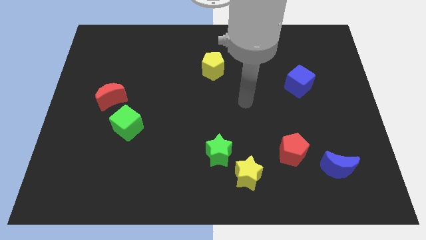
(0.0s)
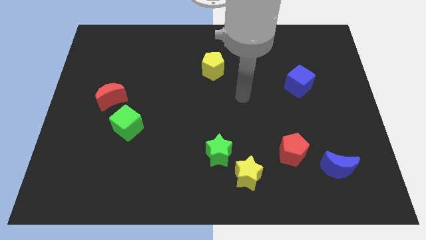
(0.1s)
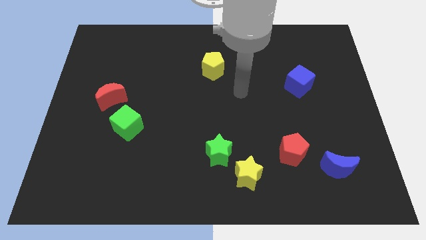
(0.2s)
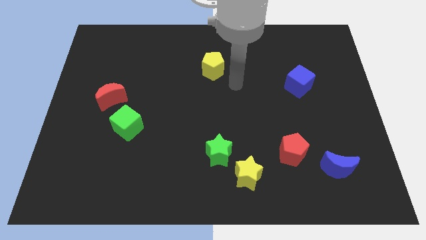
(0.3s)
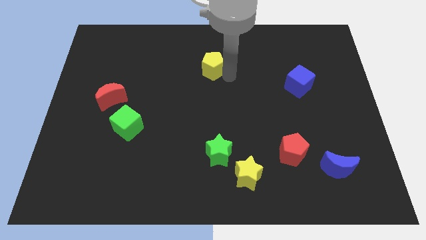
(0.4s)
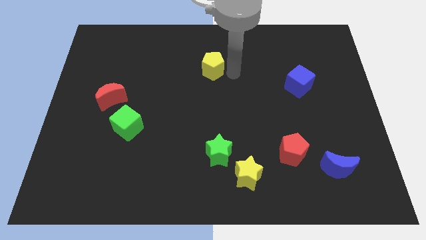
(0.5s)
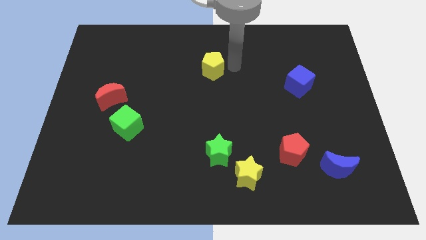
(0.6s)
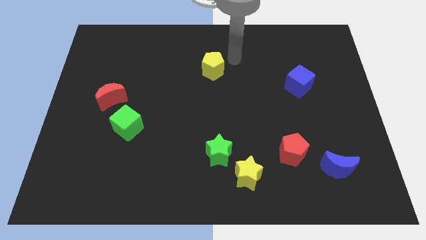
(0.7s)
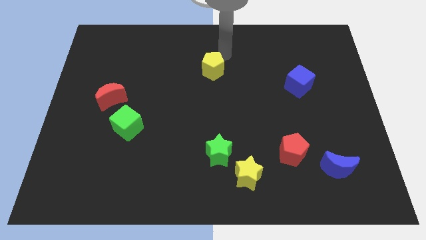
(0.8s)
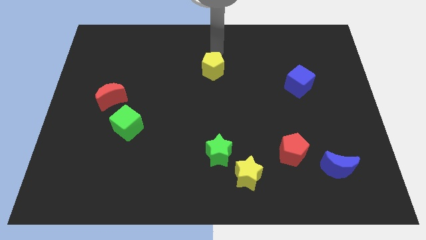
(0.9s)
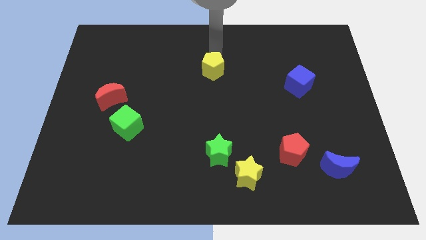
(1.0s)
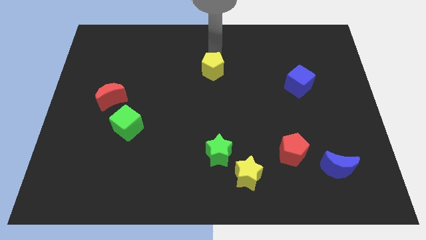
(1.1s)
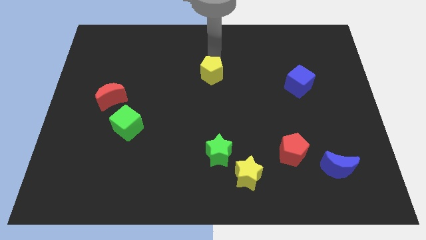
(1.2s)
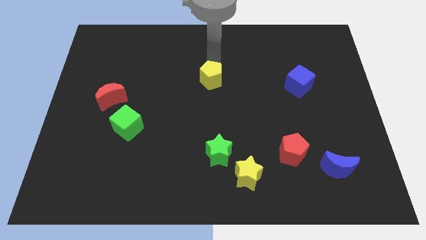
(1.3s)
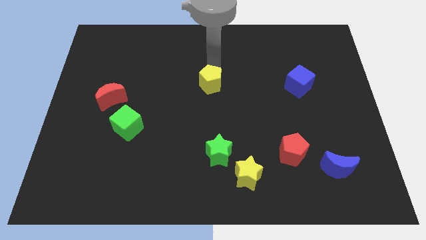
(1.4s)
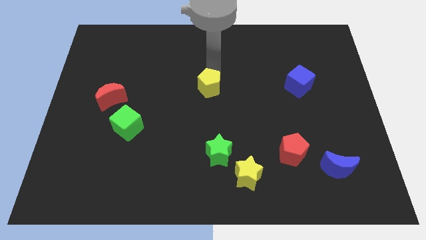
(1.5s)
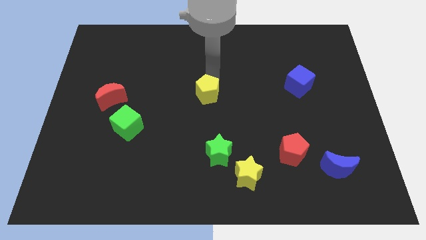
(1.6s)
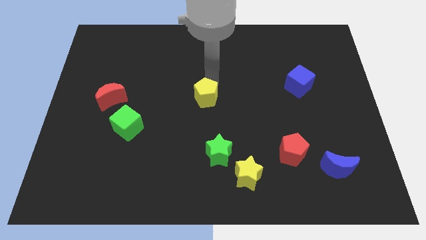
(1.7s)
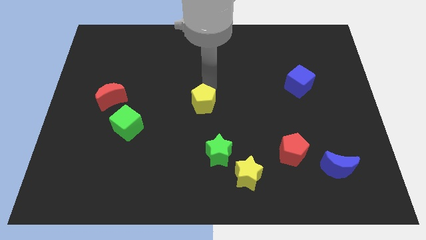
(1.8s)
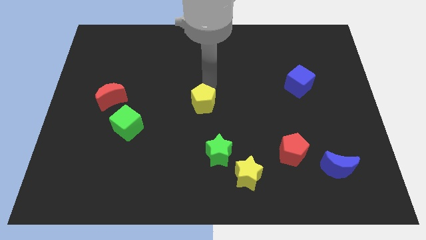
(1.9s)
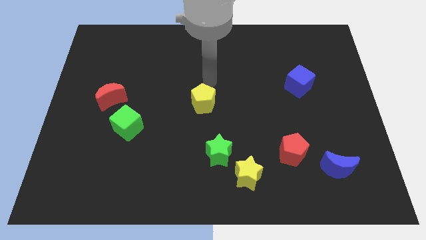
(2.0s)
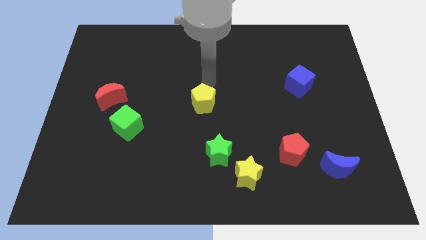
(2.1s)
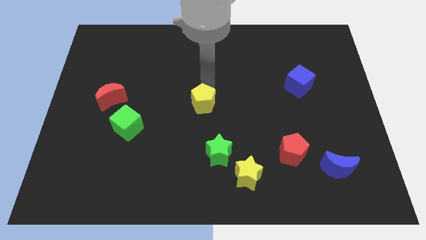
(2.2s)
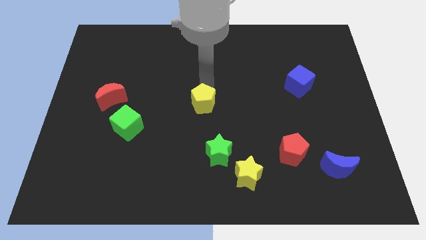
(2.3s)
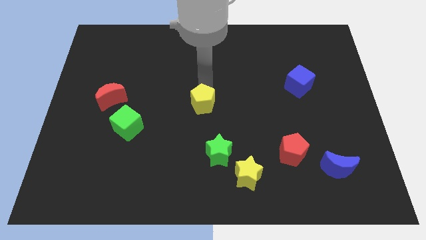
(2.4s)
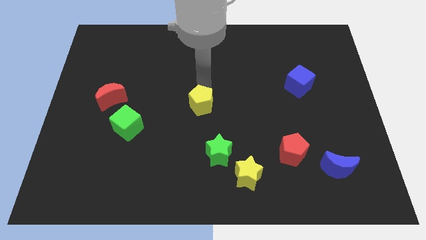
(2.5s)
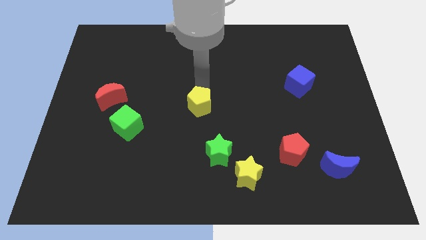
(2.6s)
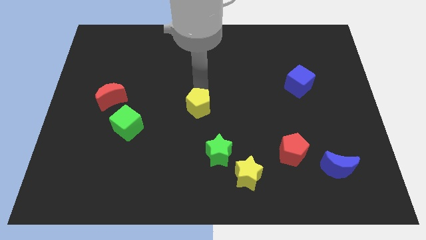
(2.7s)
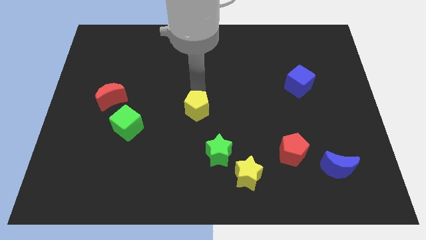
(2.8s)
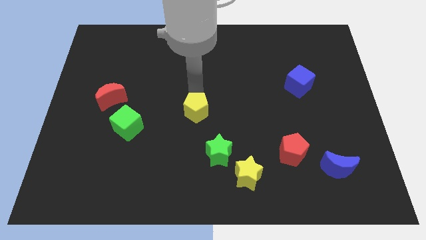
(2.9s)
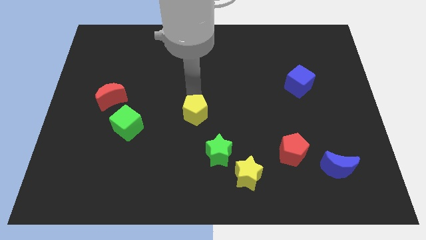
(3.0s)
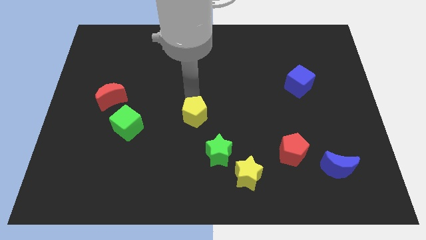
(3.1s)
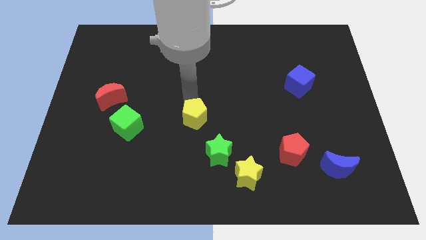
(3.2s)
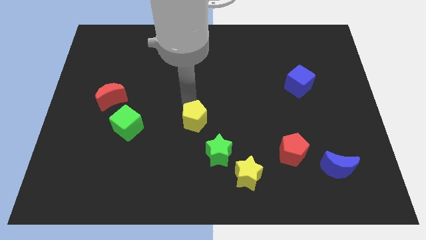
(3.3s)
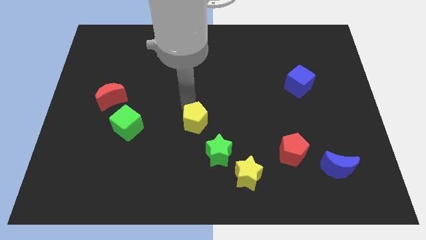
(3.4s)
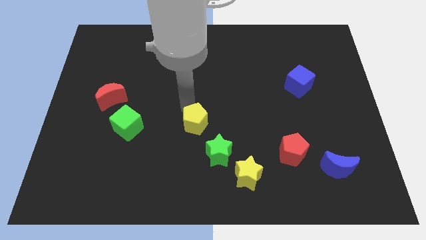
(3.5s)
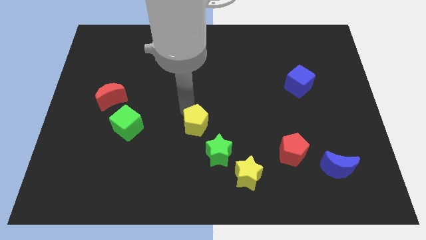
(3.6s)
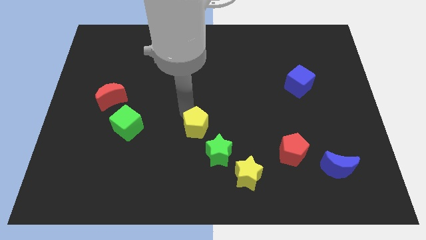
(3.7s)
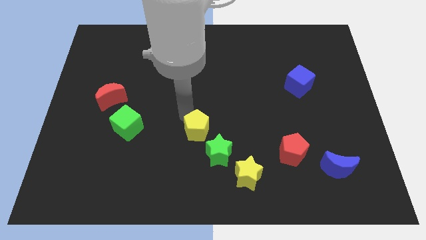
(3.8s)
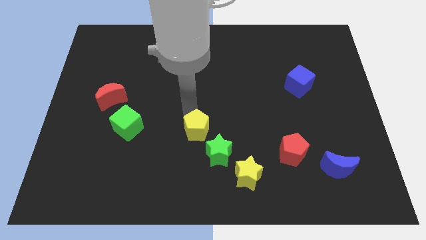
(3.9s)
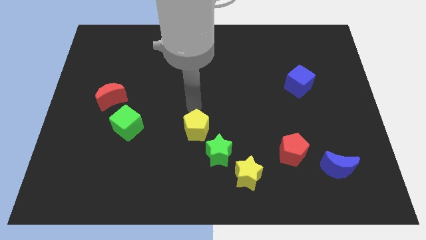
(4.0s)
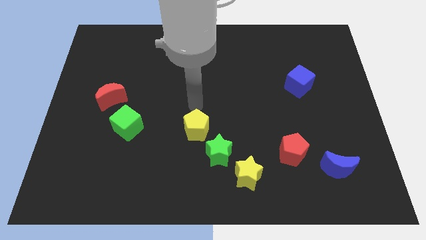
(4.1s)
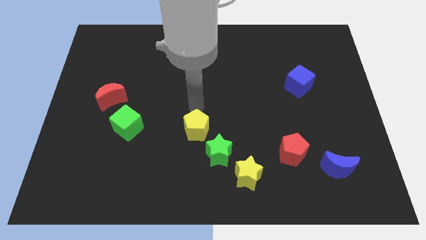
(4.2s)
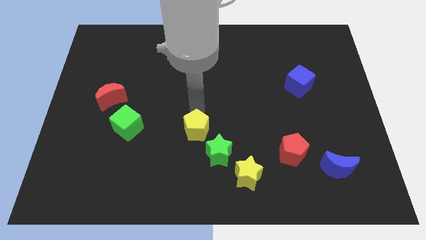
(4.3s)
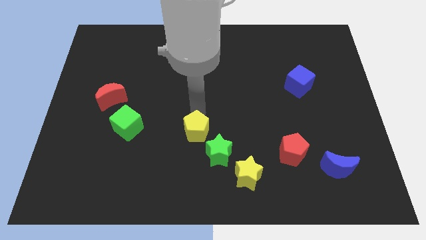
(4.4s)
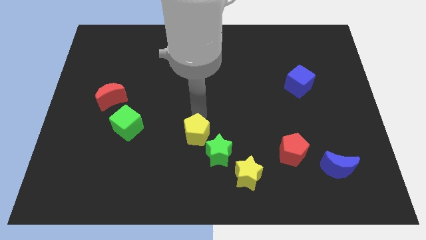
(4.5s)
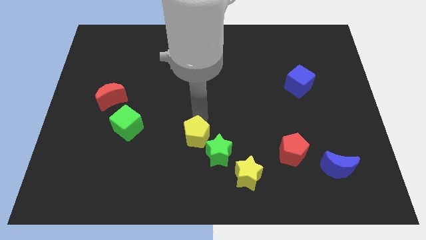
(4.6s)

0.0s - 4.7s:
slide the yellow pentagon down

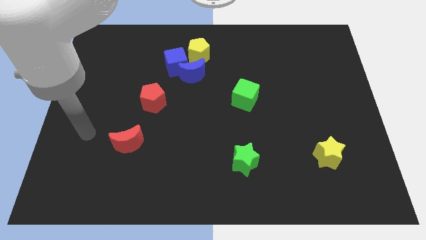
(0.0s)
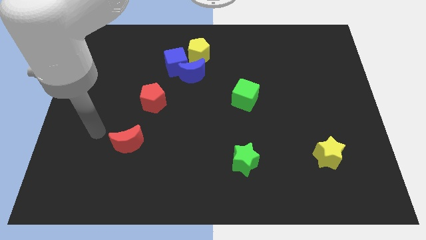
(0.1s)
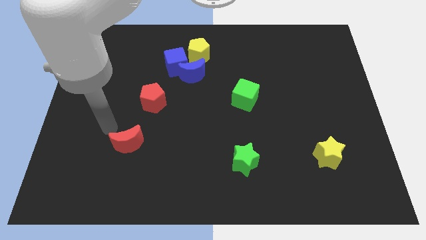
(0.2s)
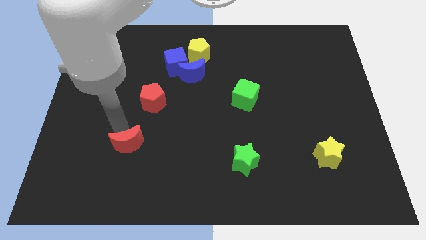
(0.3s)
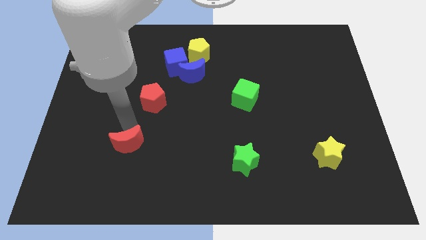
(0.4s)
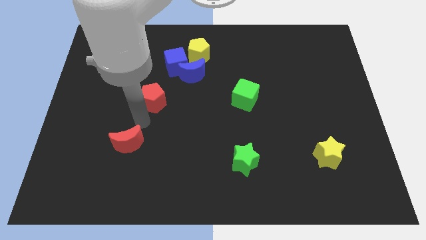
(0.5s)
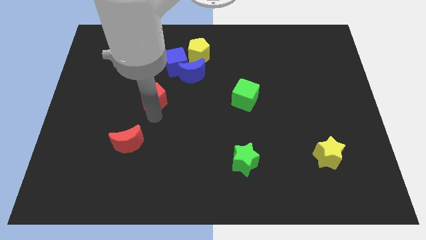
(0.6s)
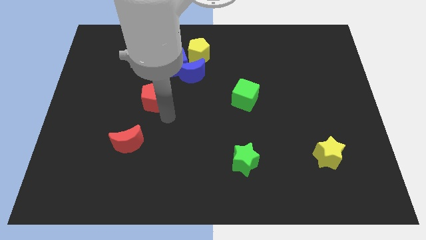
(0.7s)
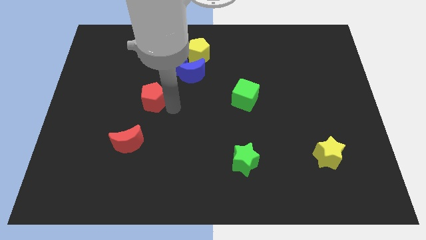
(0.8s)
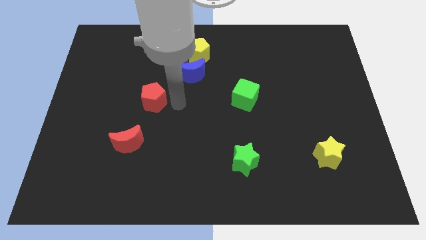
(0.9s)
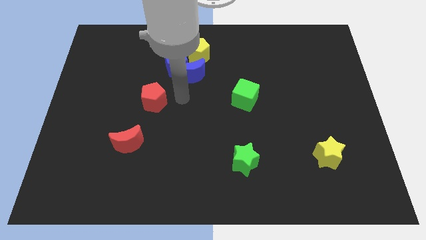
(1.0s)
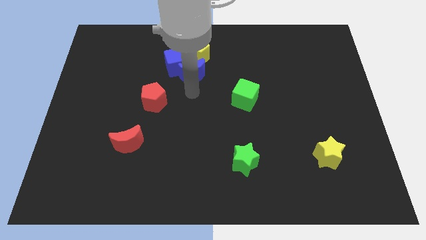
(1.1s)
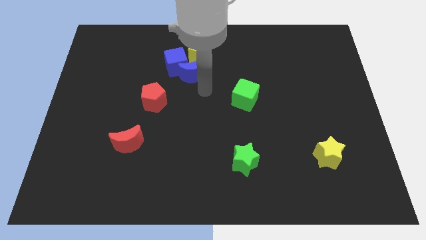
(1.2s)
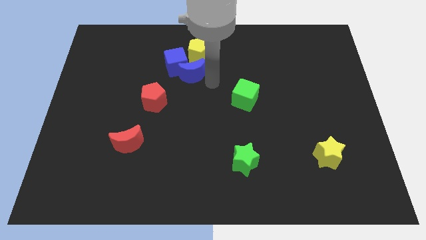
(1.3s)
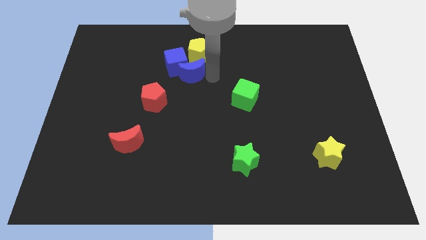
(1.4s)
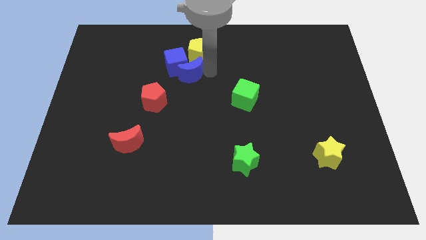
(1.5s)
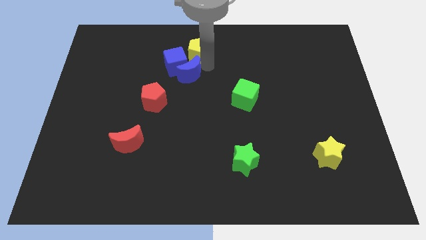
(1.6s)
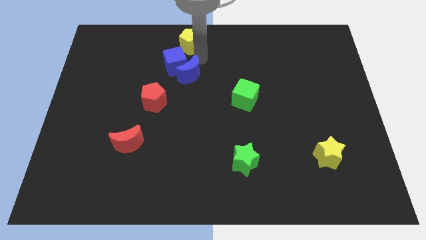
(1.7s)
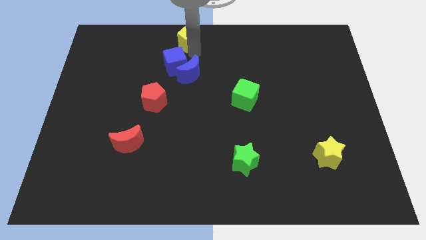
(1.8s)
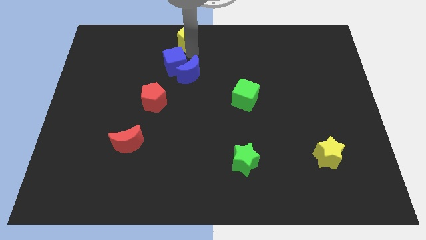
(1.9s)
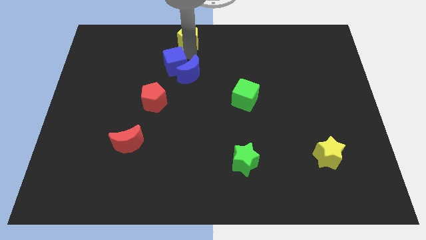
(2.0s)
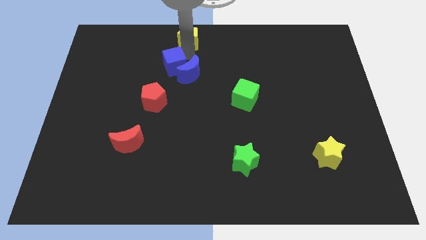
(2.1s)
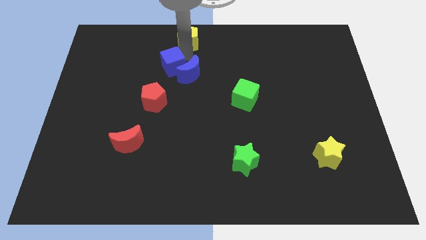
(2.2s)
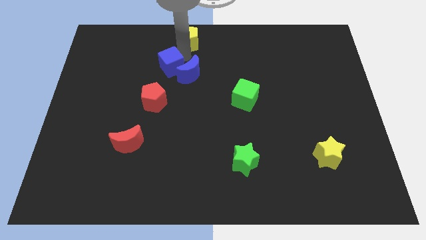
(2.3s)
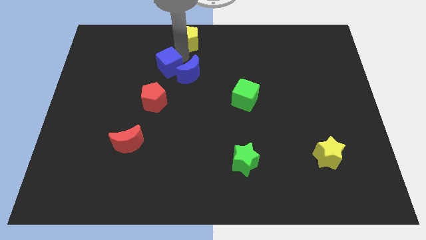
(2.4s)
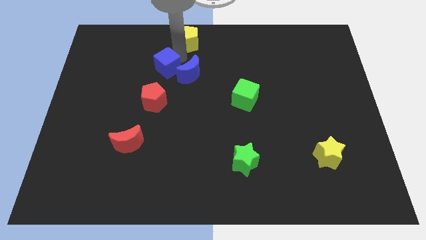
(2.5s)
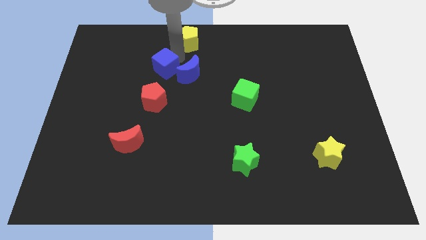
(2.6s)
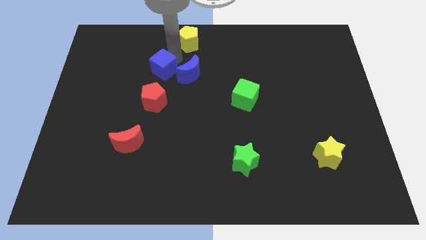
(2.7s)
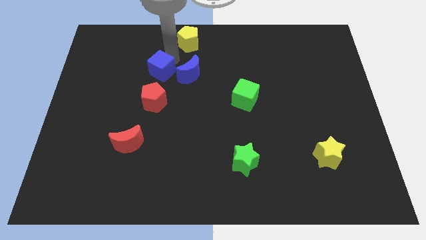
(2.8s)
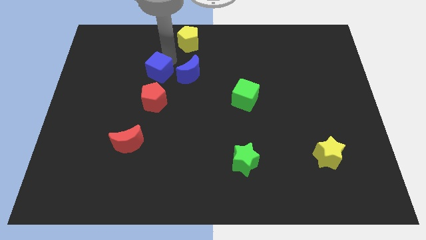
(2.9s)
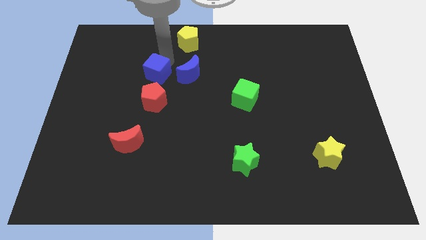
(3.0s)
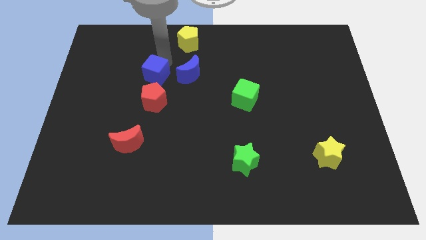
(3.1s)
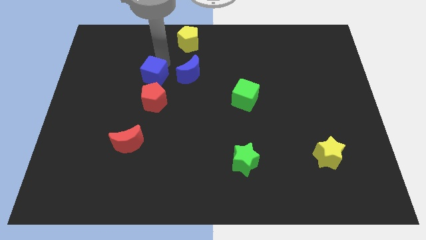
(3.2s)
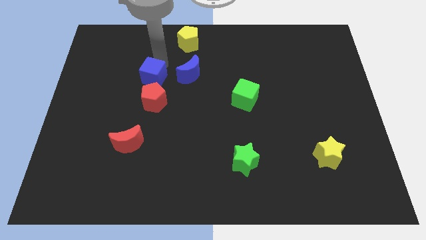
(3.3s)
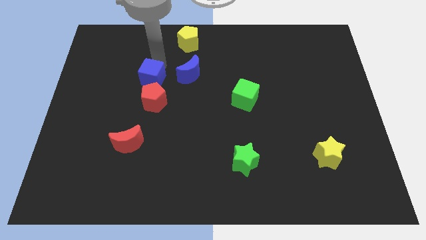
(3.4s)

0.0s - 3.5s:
slightly push the blue cube downwards and left
